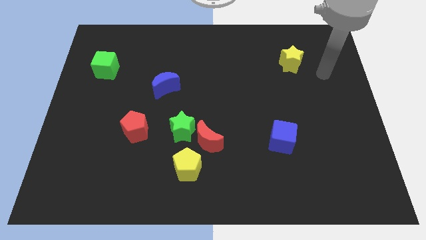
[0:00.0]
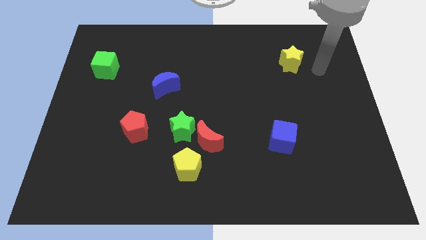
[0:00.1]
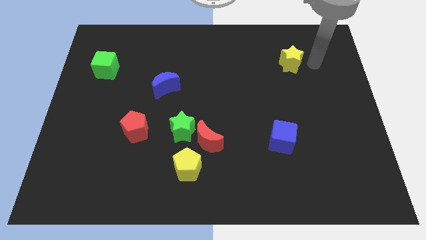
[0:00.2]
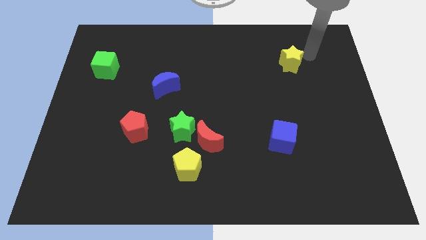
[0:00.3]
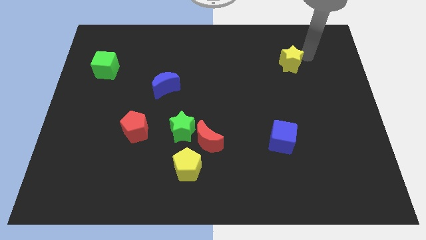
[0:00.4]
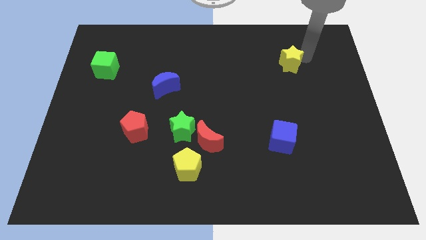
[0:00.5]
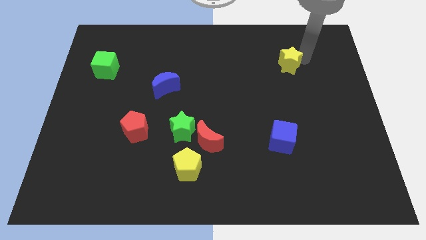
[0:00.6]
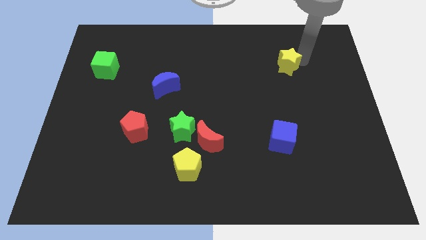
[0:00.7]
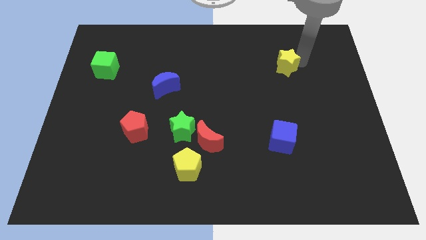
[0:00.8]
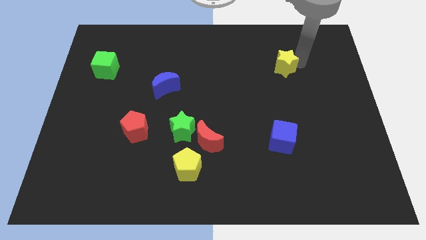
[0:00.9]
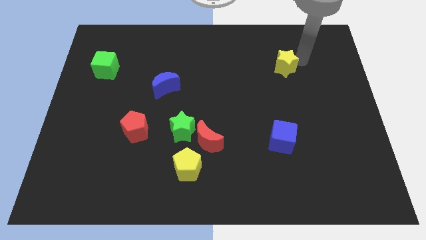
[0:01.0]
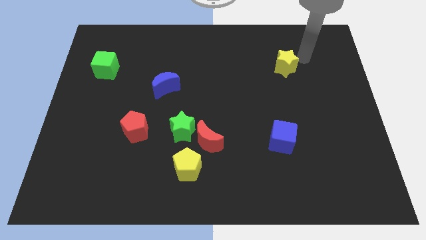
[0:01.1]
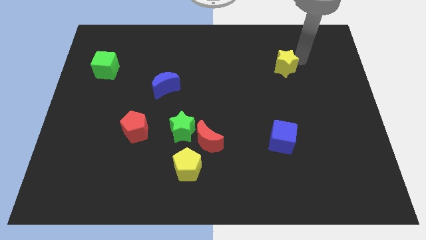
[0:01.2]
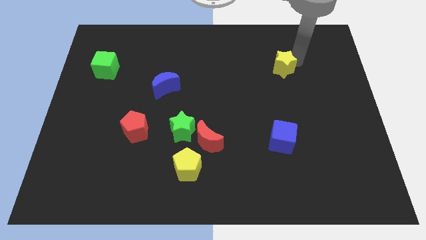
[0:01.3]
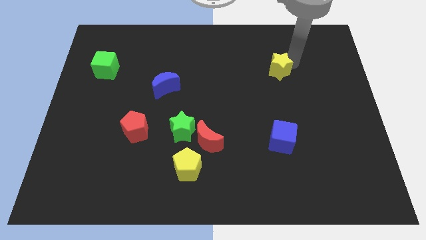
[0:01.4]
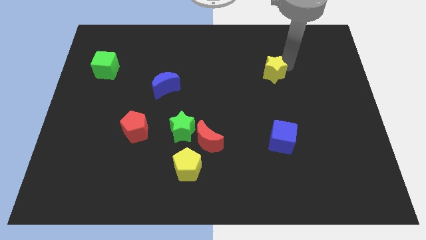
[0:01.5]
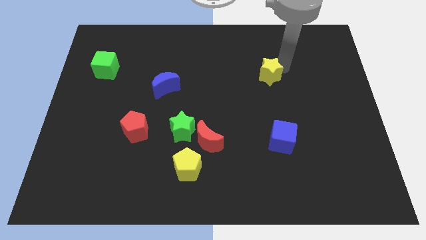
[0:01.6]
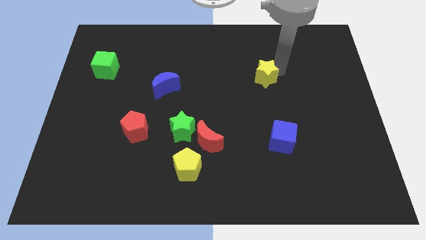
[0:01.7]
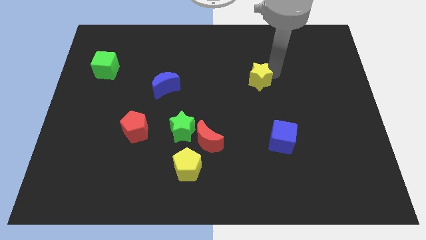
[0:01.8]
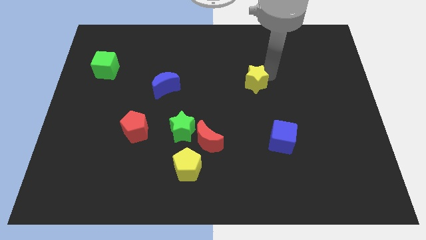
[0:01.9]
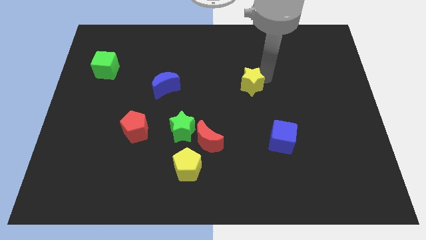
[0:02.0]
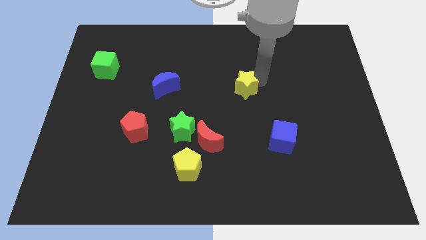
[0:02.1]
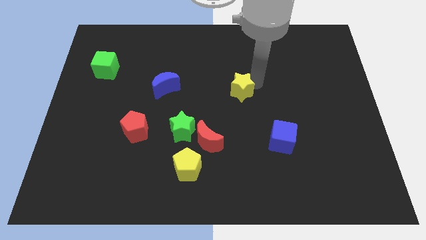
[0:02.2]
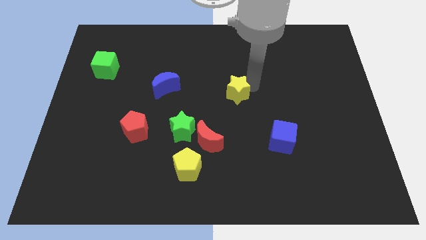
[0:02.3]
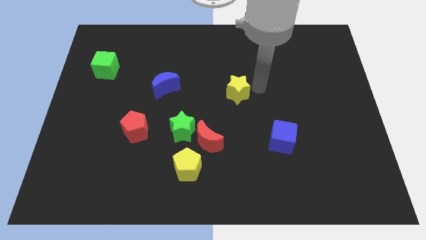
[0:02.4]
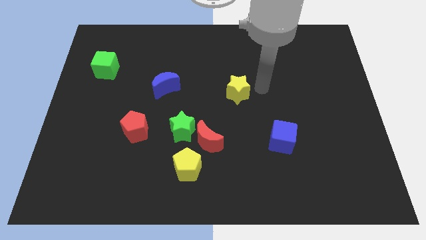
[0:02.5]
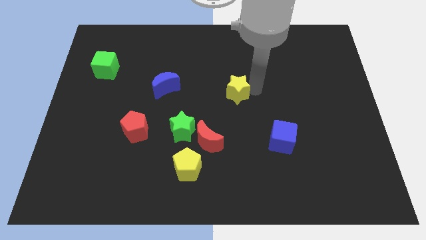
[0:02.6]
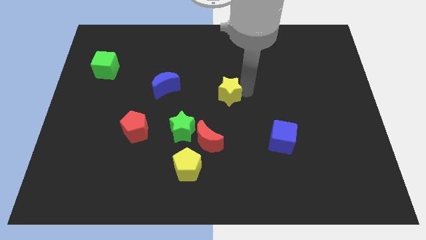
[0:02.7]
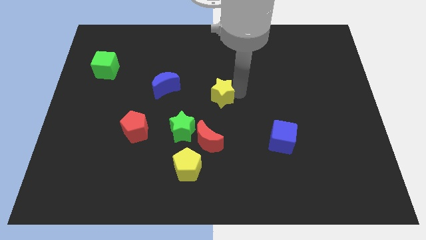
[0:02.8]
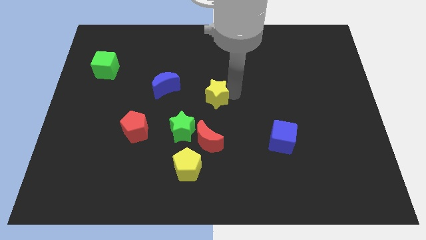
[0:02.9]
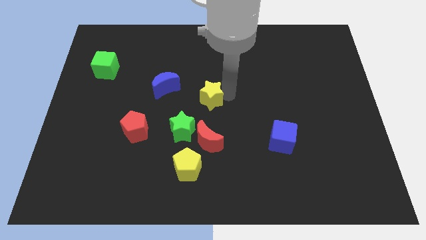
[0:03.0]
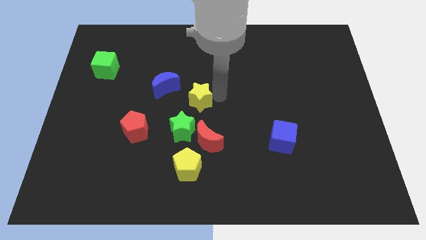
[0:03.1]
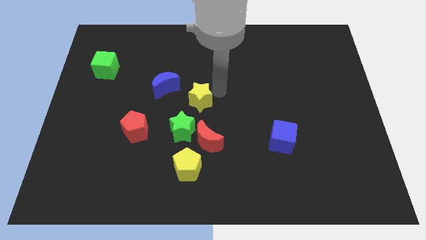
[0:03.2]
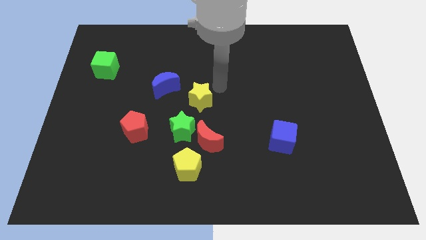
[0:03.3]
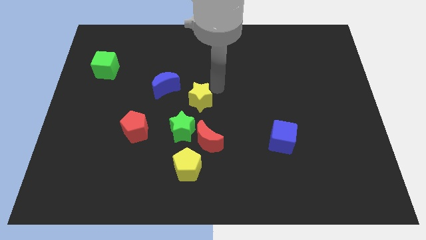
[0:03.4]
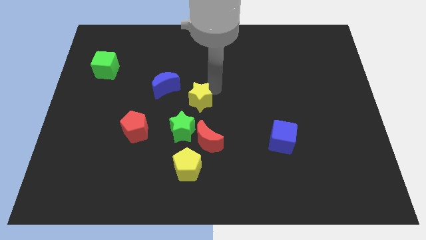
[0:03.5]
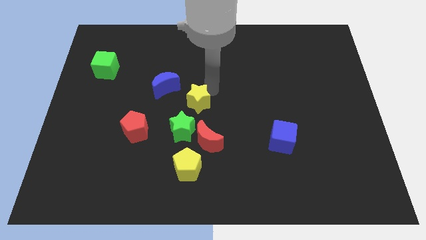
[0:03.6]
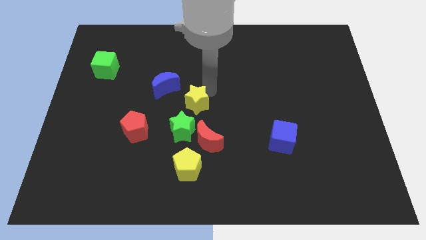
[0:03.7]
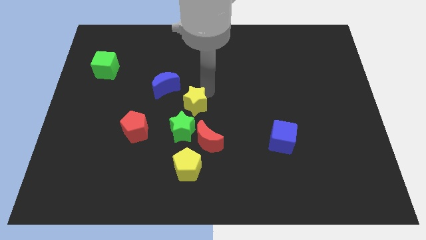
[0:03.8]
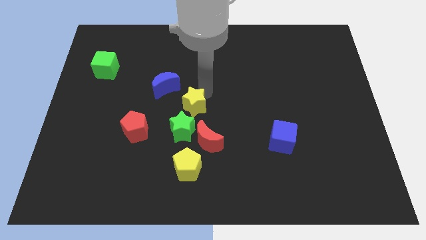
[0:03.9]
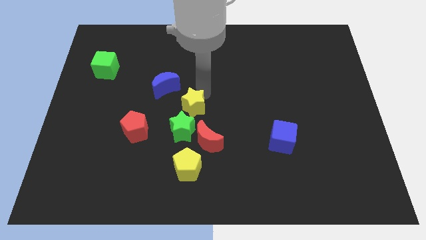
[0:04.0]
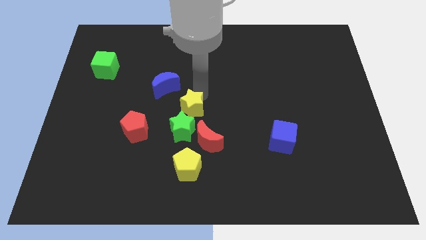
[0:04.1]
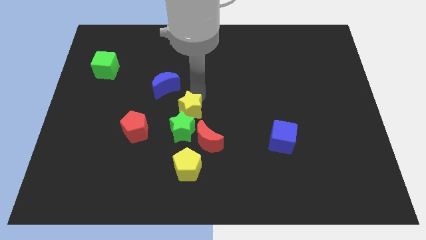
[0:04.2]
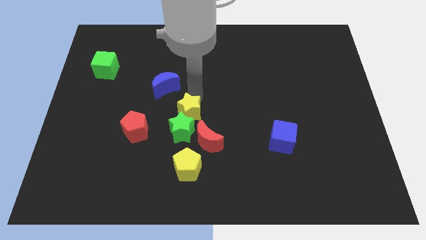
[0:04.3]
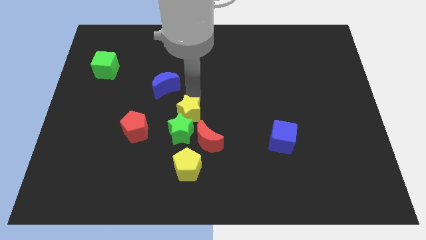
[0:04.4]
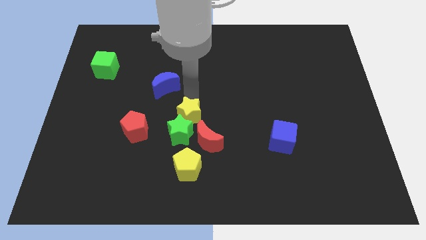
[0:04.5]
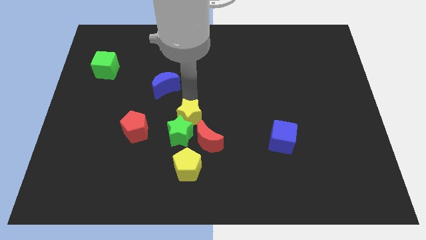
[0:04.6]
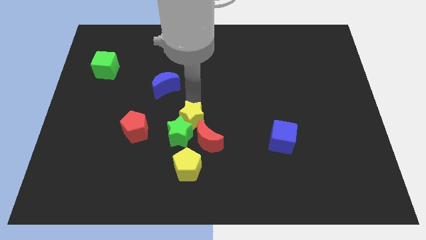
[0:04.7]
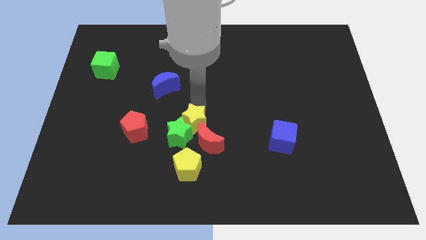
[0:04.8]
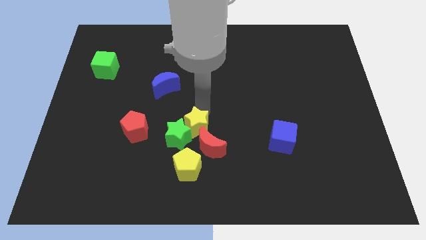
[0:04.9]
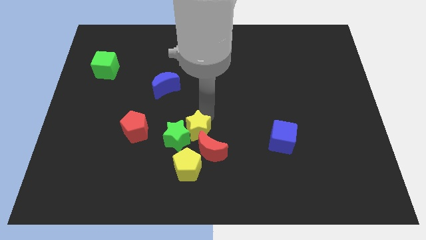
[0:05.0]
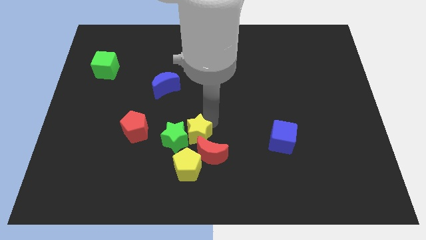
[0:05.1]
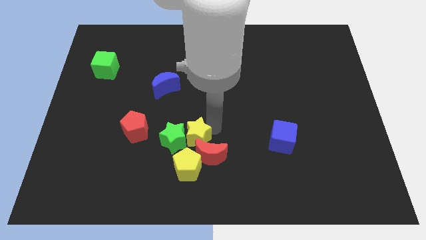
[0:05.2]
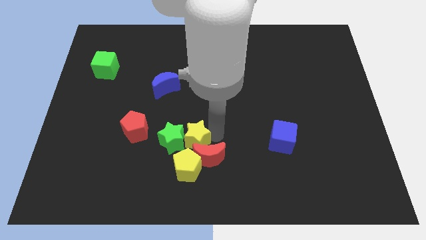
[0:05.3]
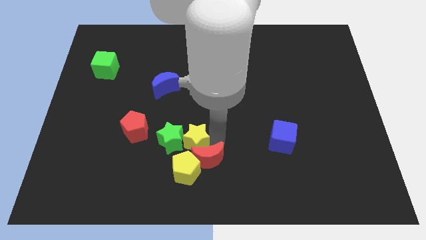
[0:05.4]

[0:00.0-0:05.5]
push the yellow star just left of the red moon

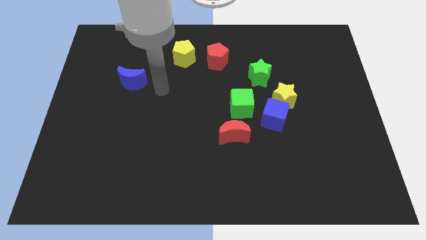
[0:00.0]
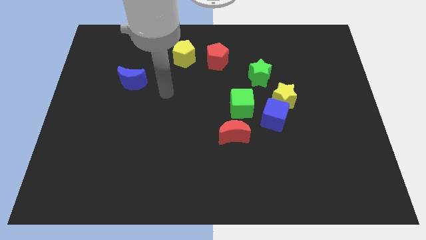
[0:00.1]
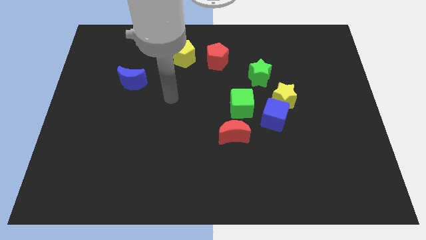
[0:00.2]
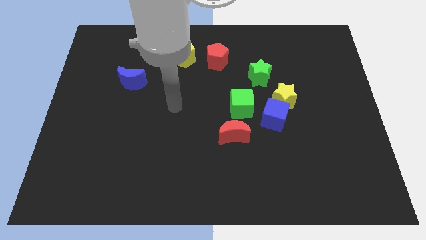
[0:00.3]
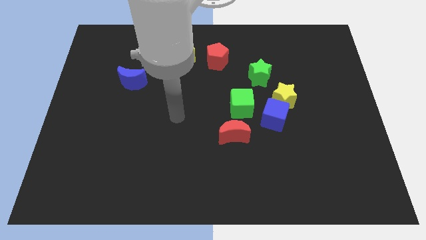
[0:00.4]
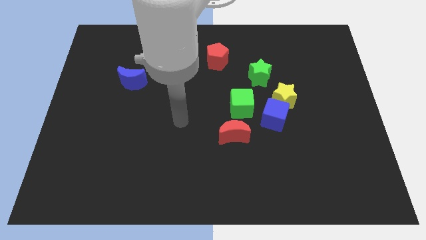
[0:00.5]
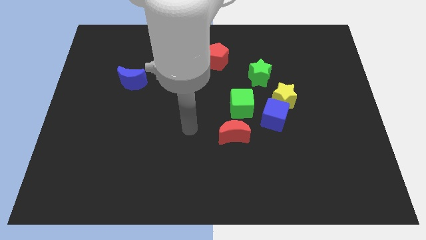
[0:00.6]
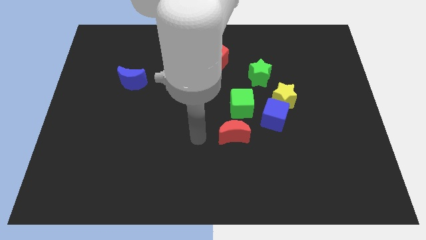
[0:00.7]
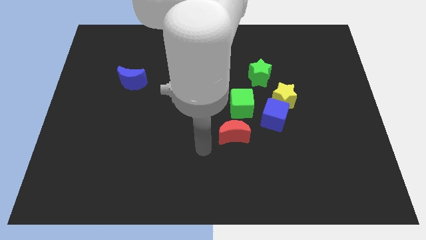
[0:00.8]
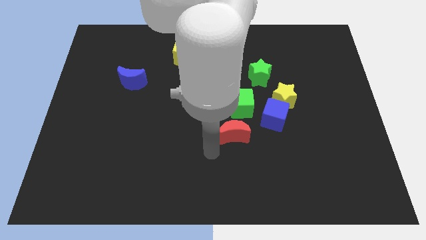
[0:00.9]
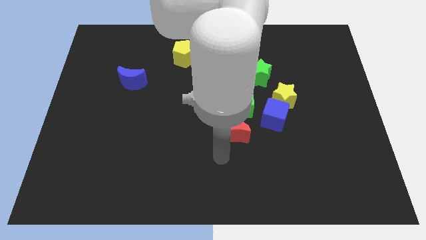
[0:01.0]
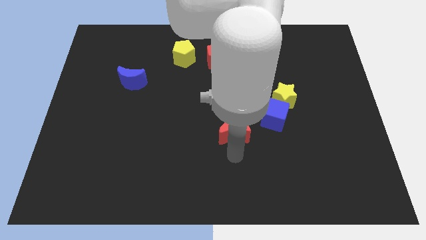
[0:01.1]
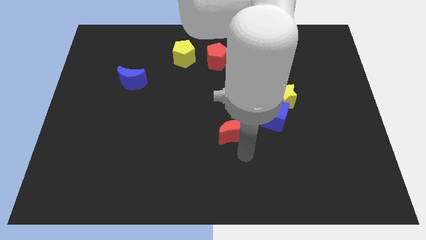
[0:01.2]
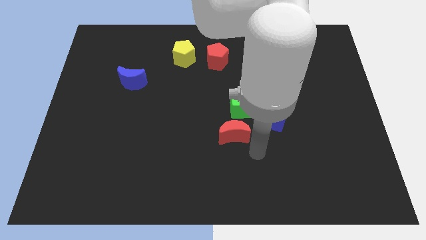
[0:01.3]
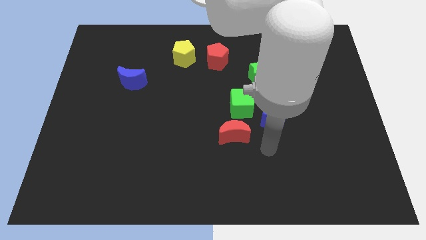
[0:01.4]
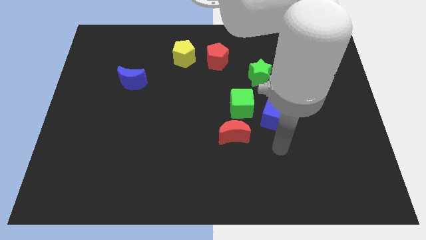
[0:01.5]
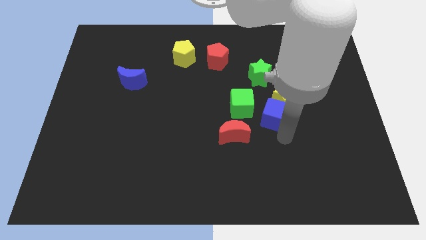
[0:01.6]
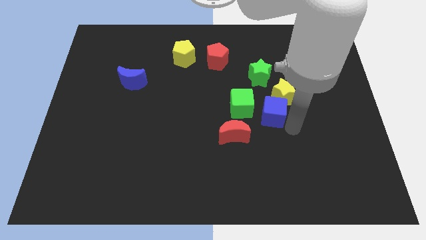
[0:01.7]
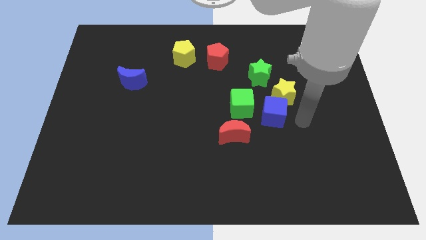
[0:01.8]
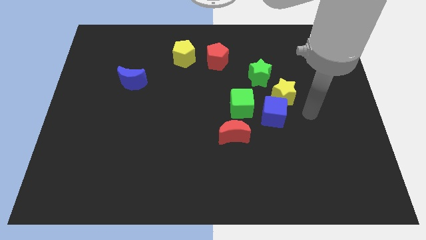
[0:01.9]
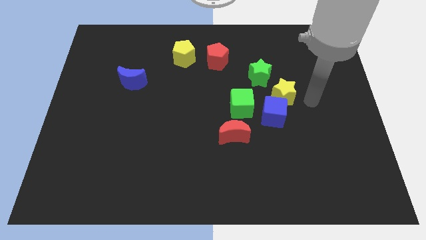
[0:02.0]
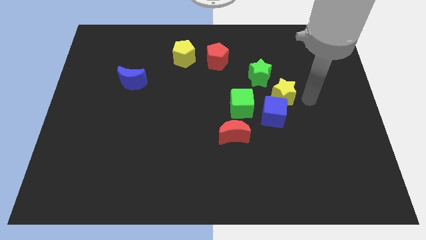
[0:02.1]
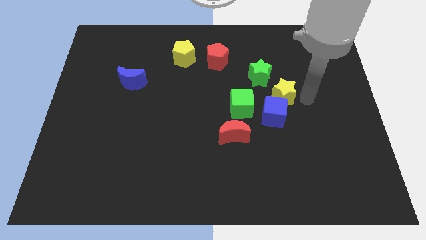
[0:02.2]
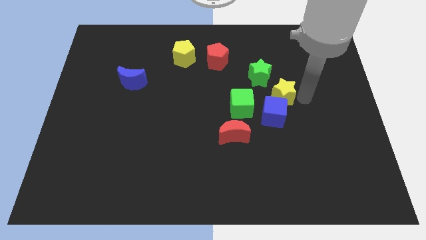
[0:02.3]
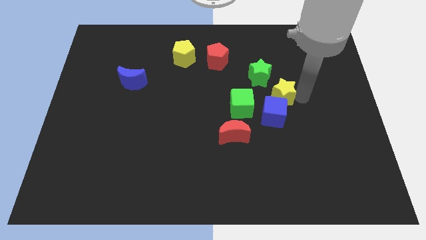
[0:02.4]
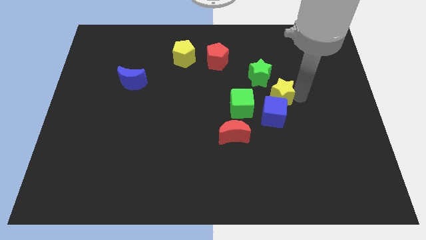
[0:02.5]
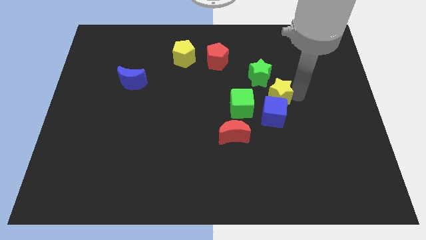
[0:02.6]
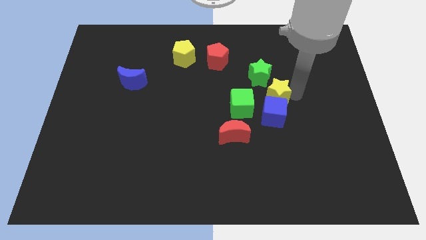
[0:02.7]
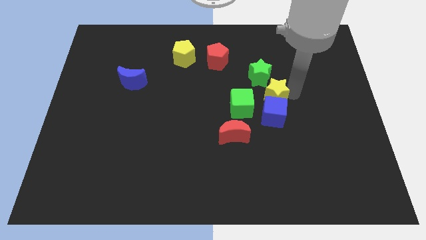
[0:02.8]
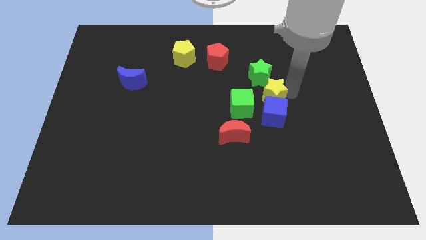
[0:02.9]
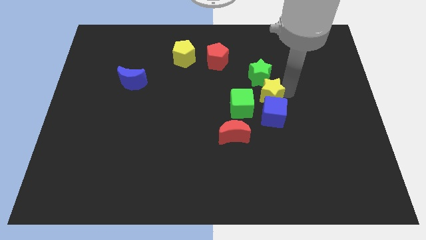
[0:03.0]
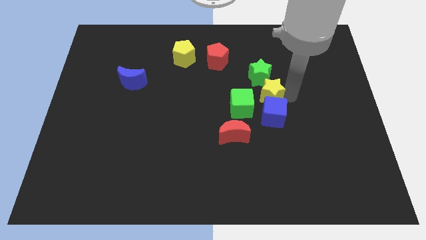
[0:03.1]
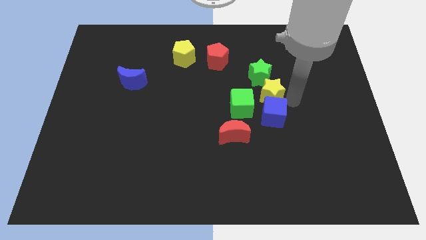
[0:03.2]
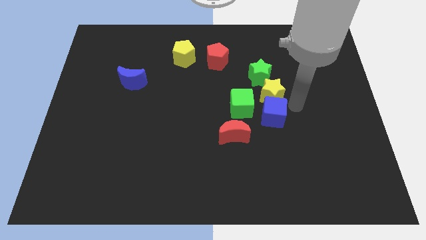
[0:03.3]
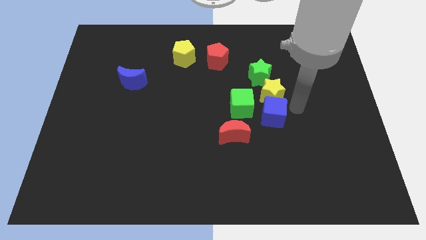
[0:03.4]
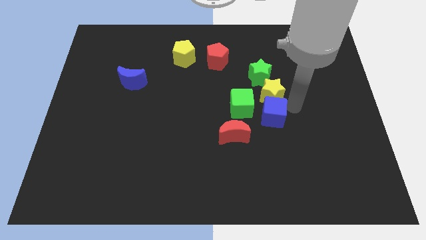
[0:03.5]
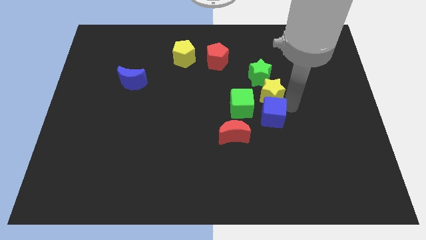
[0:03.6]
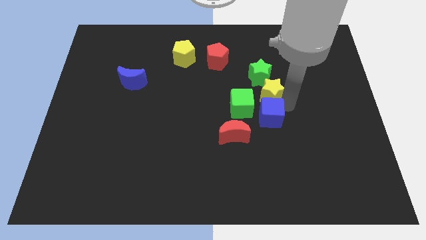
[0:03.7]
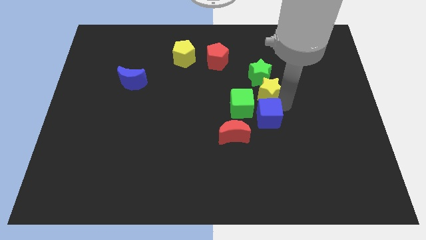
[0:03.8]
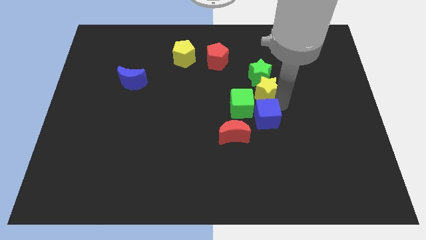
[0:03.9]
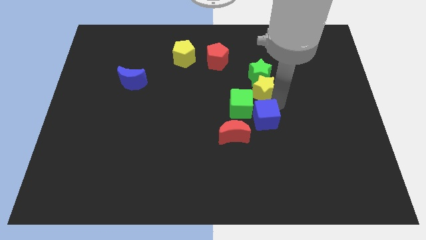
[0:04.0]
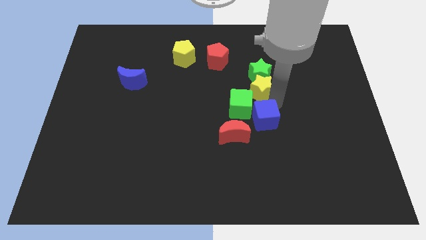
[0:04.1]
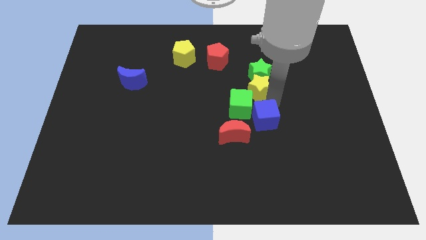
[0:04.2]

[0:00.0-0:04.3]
push the yellow star above the green cube
